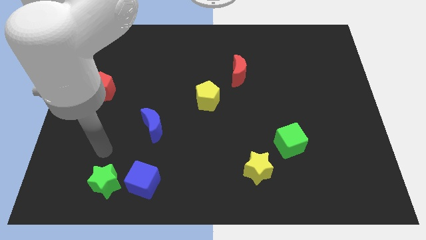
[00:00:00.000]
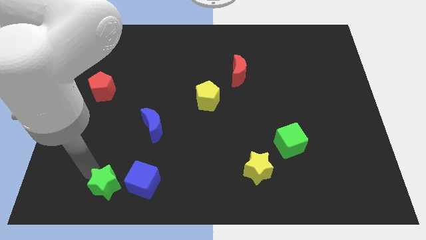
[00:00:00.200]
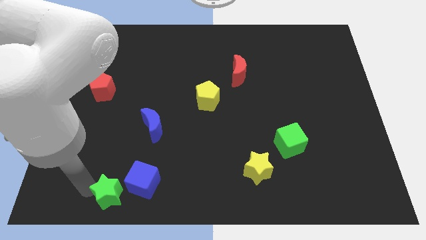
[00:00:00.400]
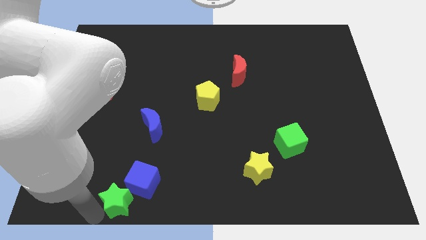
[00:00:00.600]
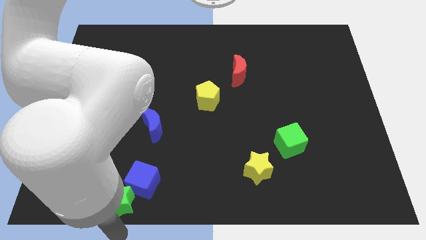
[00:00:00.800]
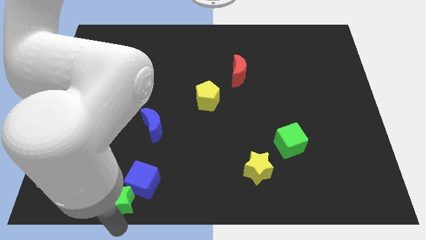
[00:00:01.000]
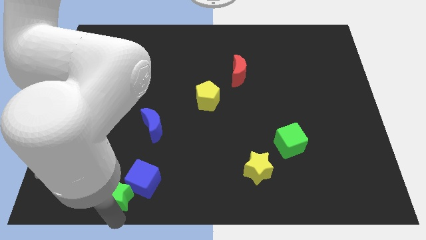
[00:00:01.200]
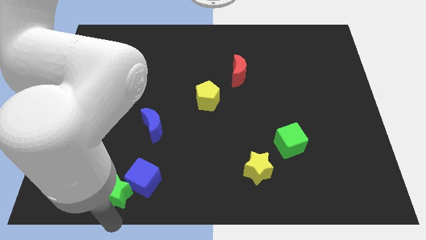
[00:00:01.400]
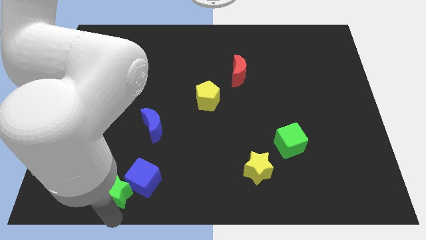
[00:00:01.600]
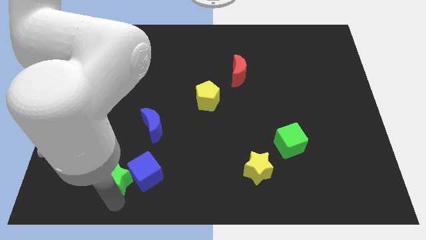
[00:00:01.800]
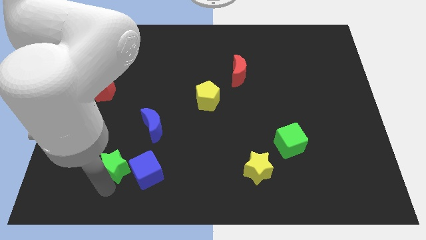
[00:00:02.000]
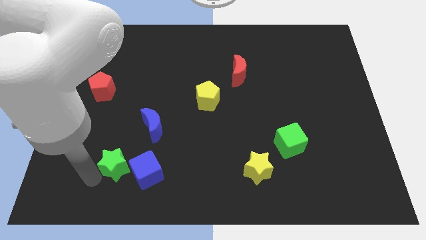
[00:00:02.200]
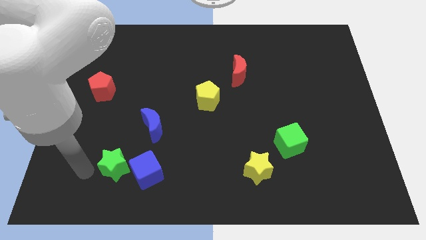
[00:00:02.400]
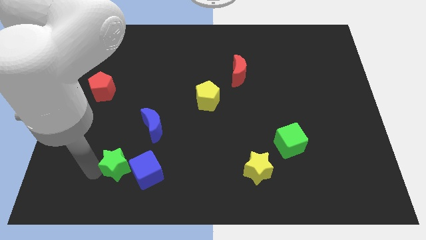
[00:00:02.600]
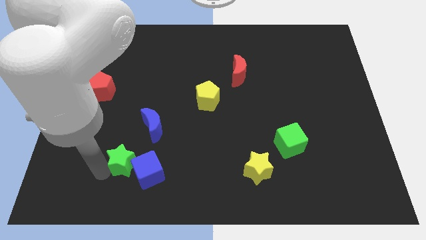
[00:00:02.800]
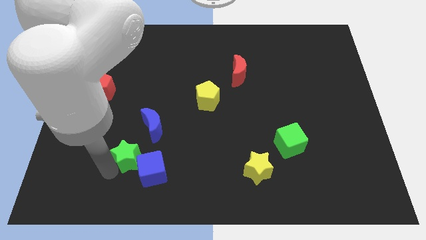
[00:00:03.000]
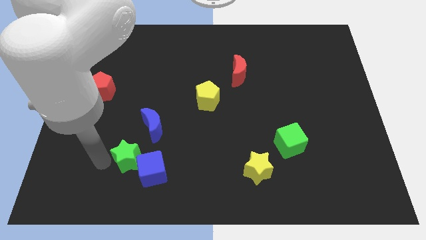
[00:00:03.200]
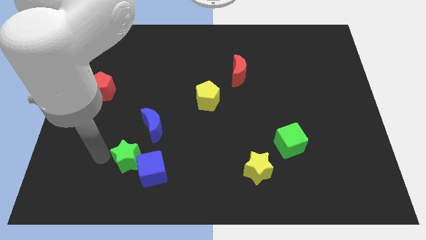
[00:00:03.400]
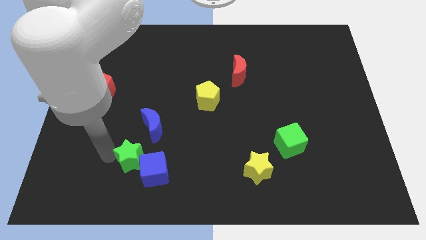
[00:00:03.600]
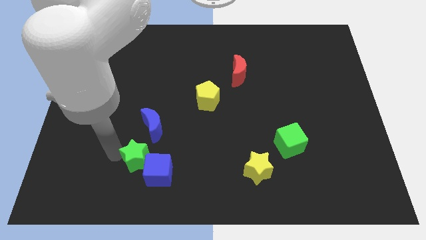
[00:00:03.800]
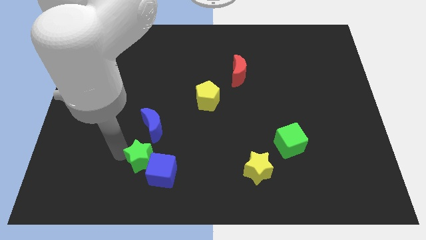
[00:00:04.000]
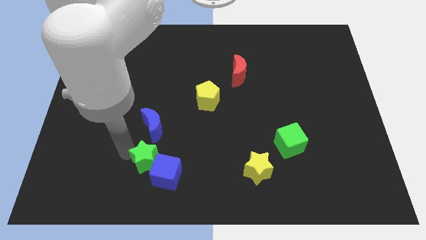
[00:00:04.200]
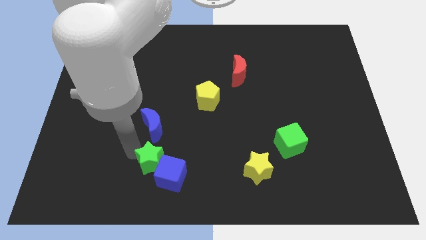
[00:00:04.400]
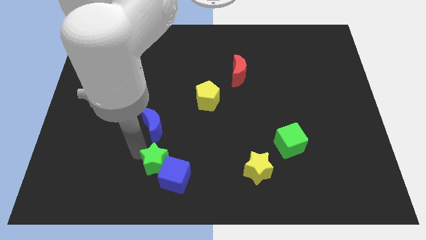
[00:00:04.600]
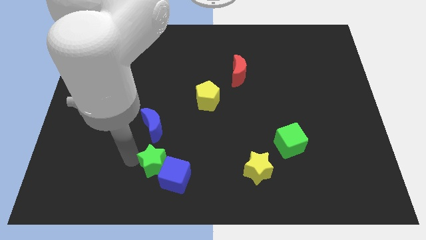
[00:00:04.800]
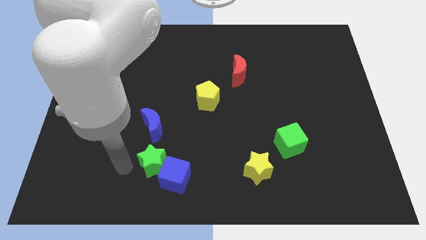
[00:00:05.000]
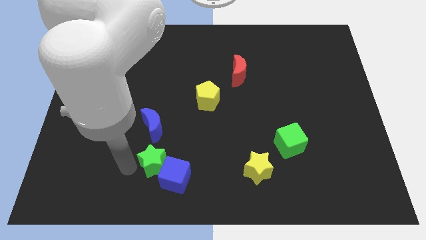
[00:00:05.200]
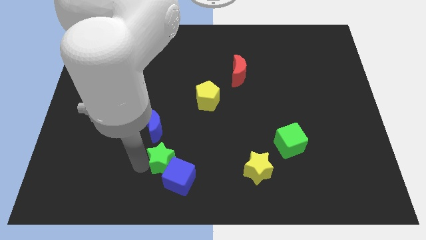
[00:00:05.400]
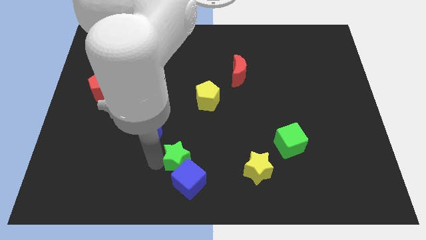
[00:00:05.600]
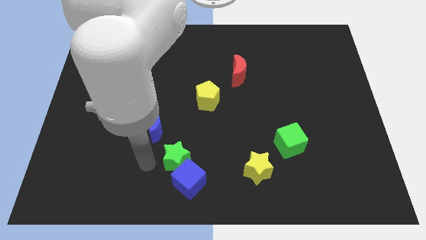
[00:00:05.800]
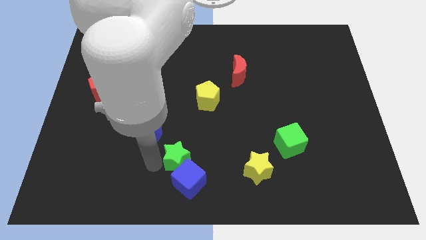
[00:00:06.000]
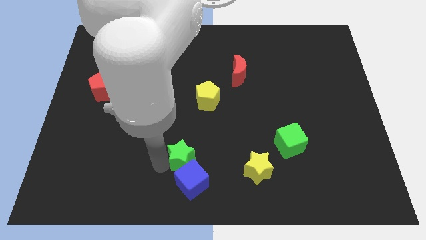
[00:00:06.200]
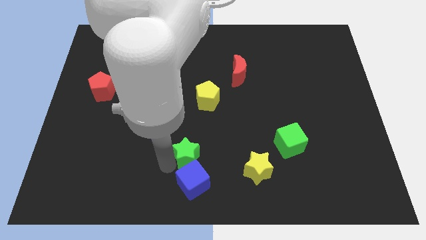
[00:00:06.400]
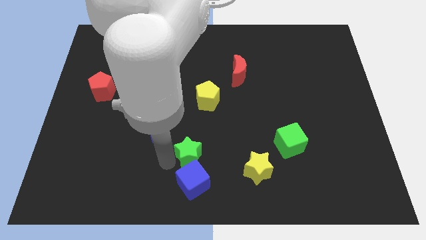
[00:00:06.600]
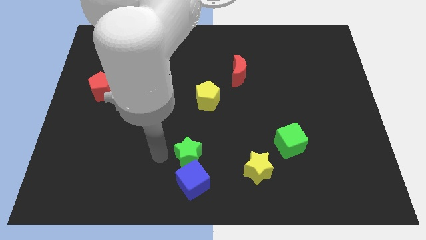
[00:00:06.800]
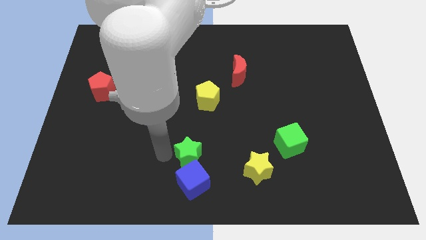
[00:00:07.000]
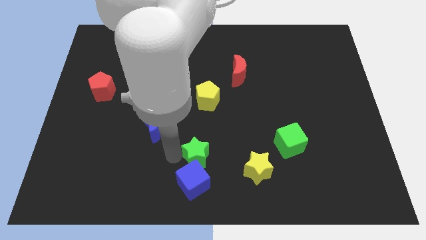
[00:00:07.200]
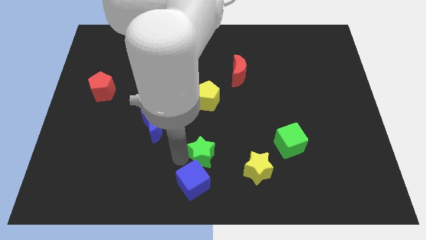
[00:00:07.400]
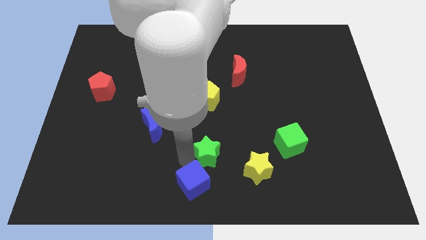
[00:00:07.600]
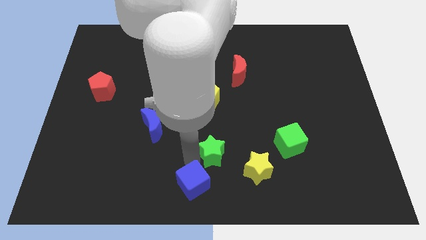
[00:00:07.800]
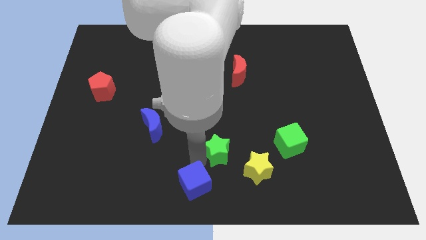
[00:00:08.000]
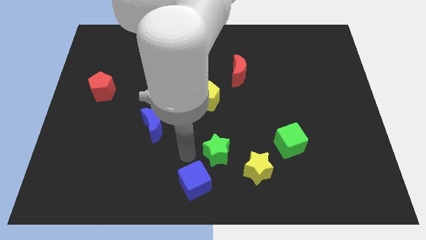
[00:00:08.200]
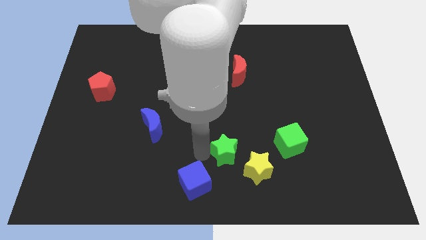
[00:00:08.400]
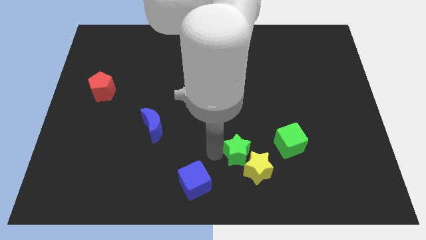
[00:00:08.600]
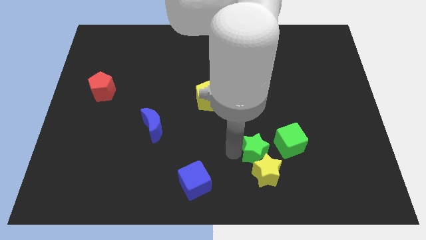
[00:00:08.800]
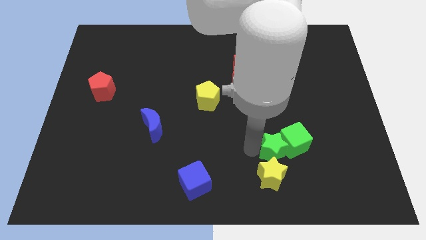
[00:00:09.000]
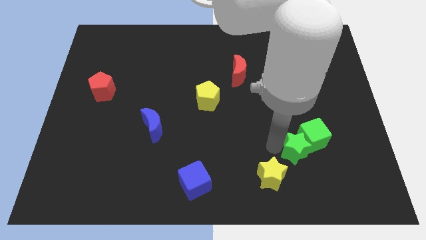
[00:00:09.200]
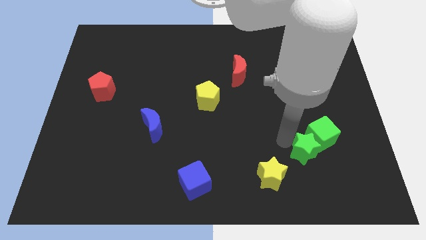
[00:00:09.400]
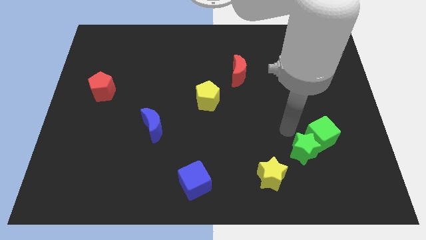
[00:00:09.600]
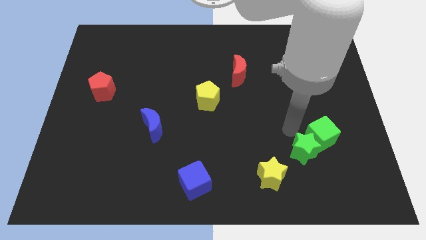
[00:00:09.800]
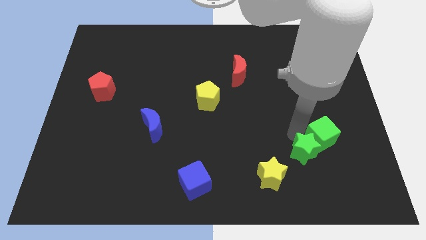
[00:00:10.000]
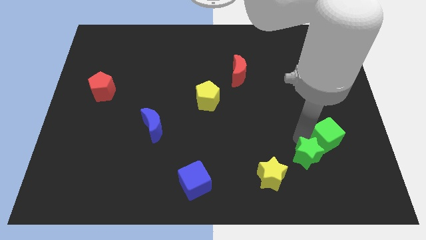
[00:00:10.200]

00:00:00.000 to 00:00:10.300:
slide the green star to the right of the yellow star

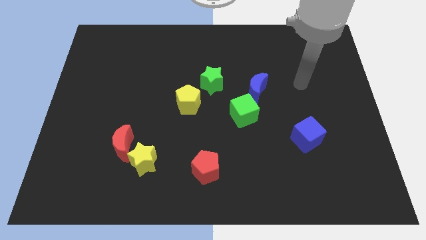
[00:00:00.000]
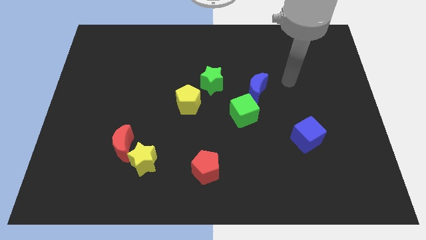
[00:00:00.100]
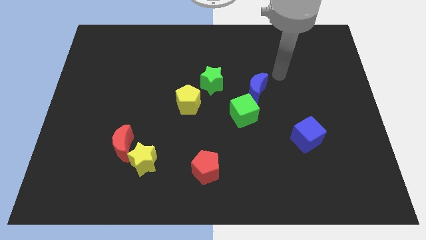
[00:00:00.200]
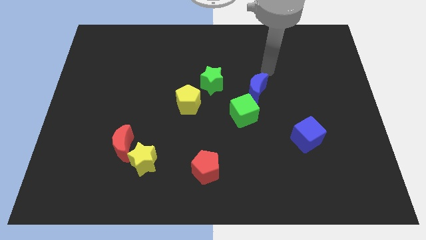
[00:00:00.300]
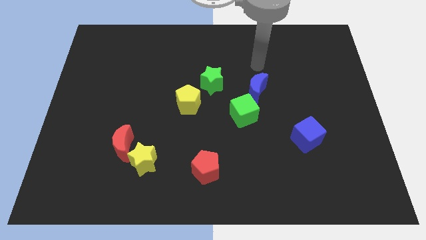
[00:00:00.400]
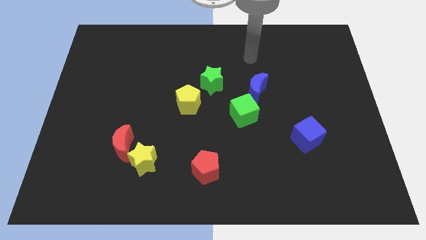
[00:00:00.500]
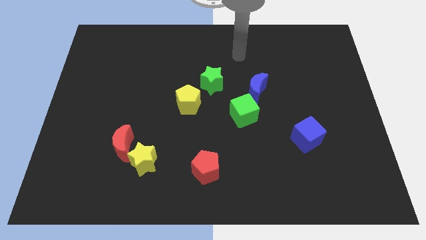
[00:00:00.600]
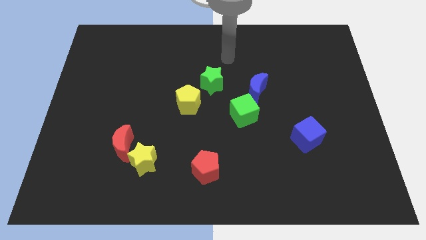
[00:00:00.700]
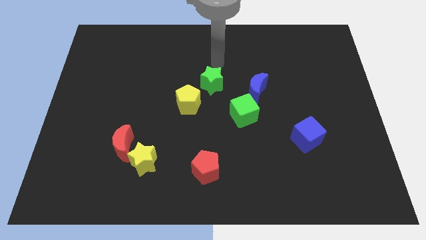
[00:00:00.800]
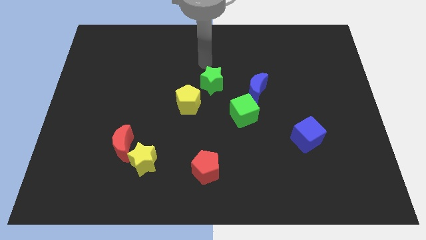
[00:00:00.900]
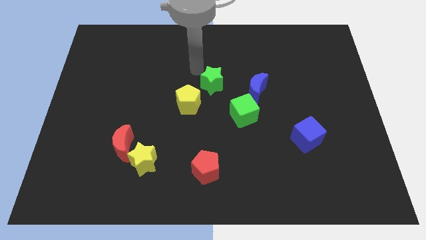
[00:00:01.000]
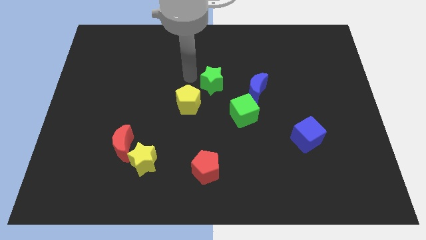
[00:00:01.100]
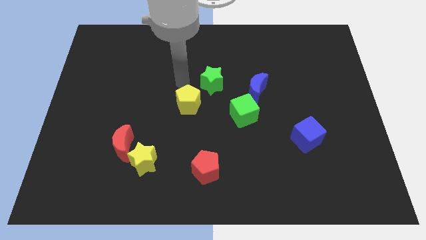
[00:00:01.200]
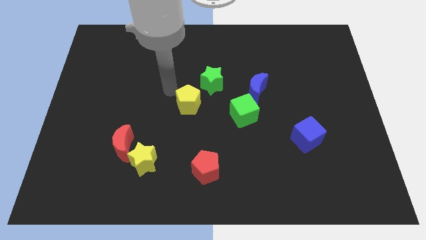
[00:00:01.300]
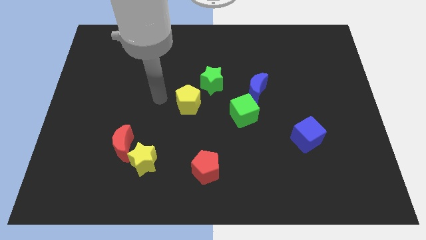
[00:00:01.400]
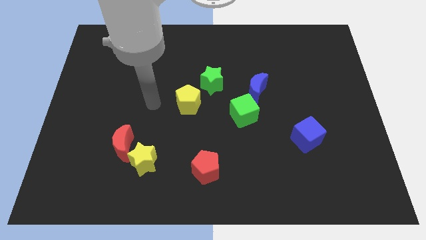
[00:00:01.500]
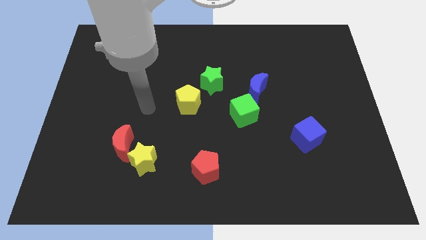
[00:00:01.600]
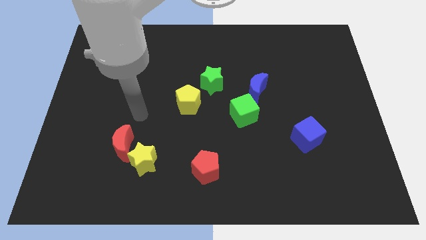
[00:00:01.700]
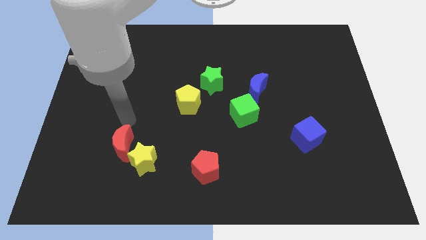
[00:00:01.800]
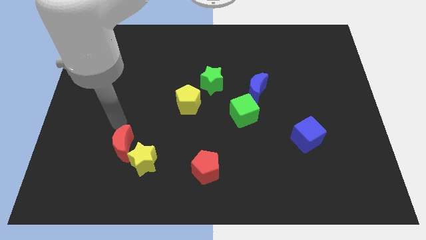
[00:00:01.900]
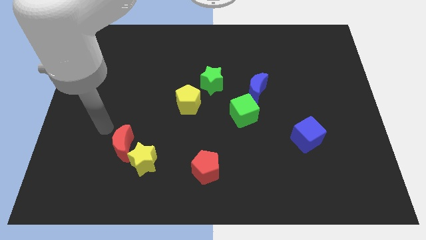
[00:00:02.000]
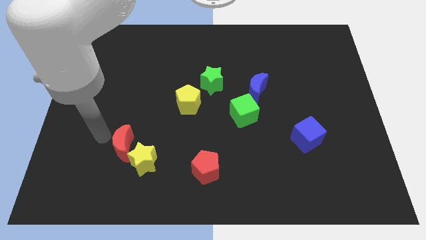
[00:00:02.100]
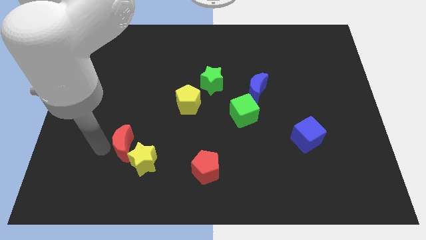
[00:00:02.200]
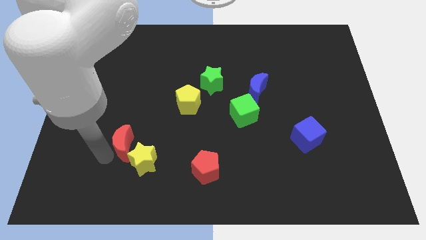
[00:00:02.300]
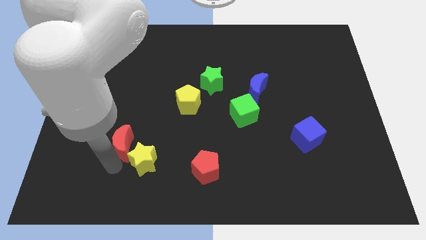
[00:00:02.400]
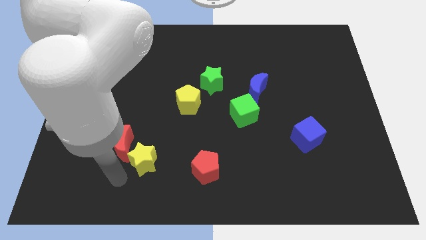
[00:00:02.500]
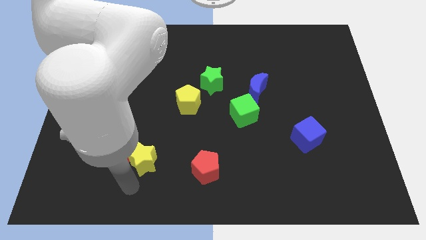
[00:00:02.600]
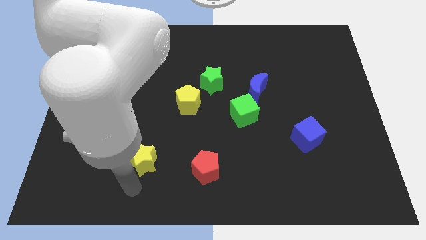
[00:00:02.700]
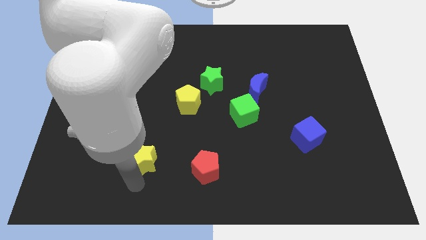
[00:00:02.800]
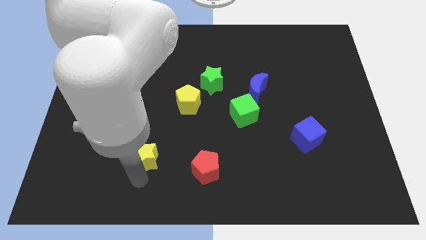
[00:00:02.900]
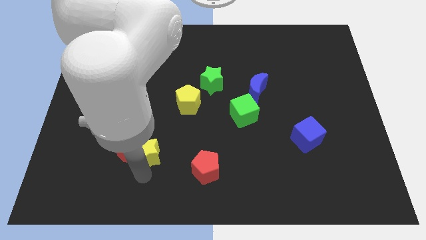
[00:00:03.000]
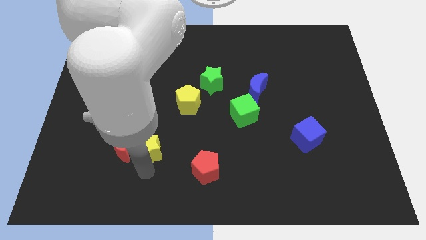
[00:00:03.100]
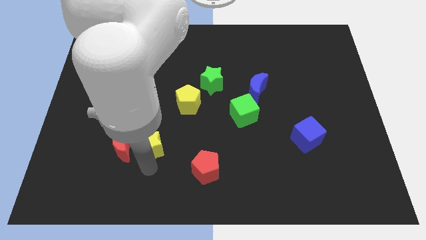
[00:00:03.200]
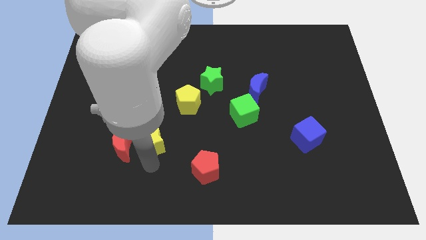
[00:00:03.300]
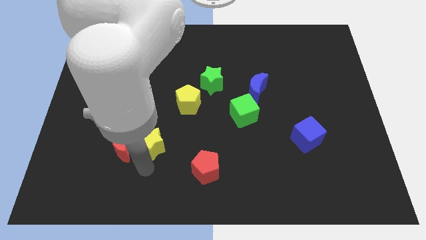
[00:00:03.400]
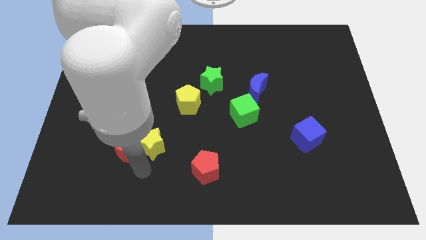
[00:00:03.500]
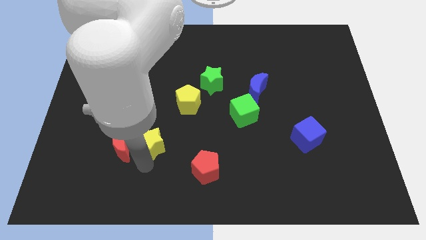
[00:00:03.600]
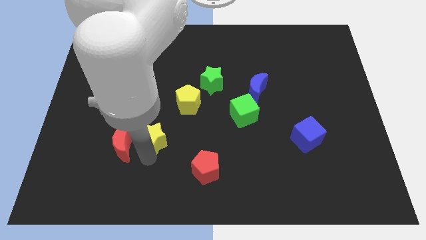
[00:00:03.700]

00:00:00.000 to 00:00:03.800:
push the yellow star to the bottom left of the yellow pentagon
